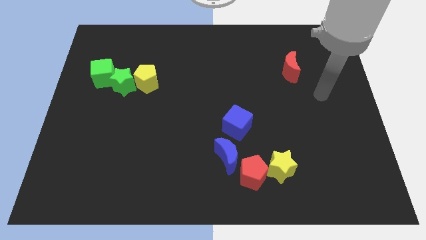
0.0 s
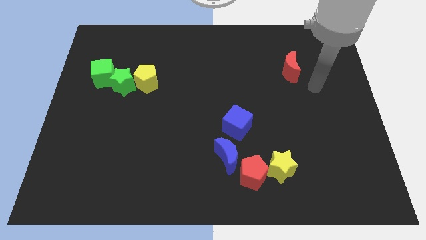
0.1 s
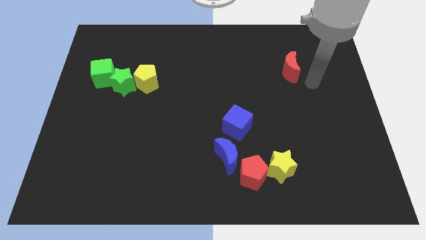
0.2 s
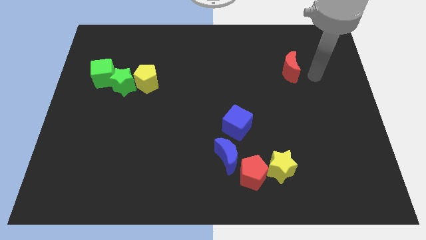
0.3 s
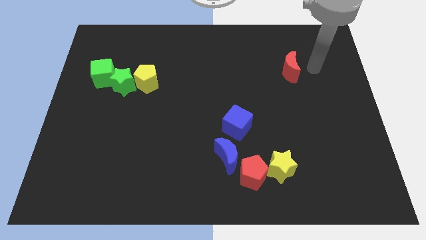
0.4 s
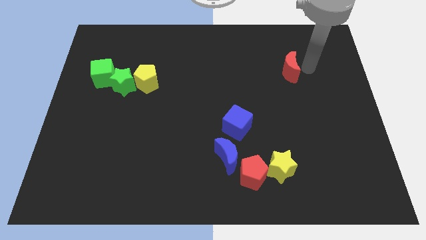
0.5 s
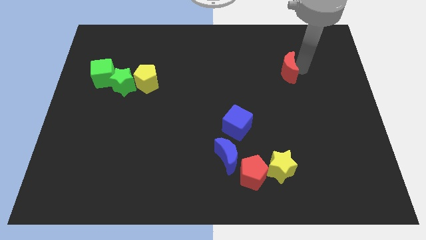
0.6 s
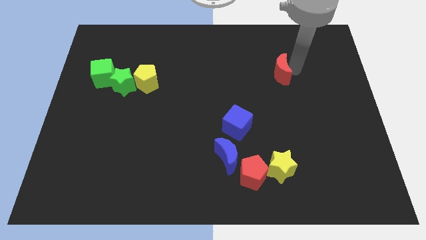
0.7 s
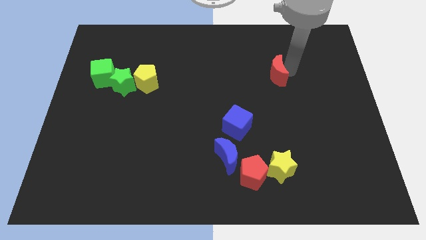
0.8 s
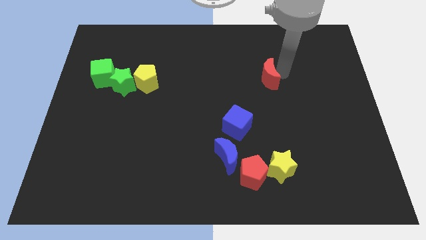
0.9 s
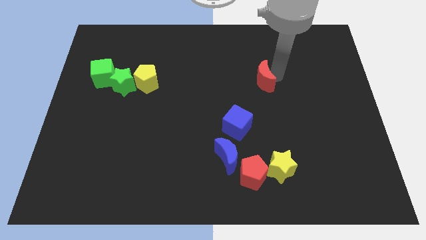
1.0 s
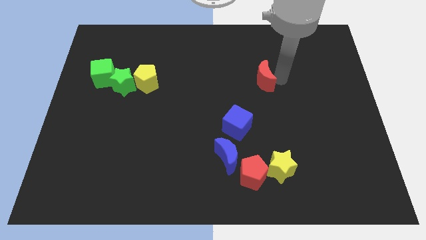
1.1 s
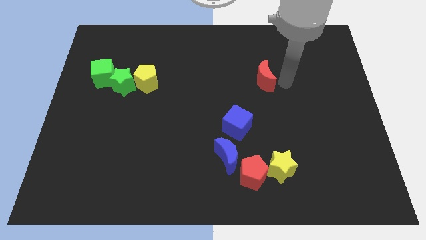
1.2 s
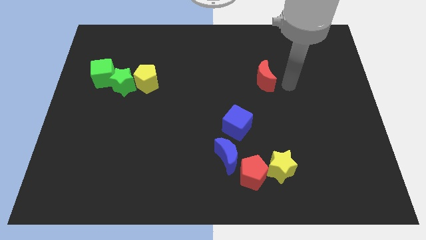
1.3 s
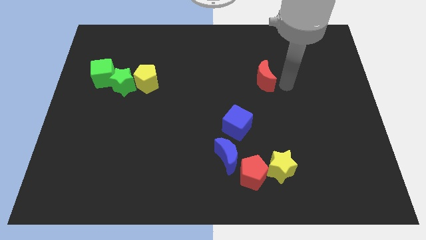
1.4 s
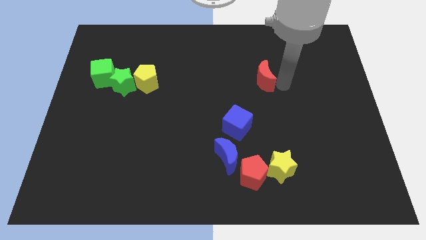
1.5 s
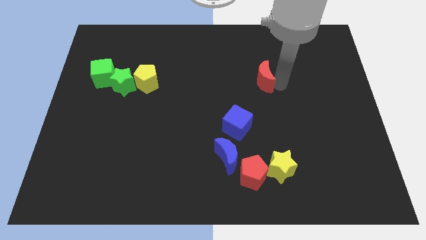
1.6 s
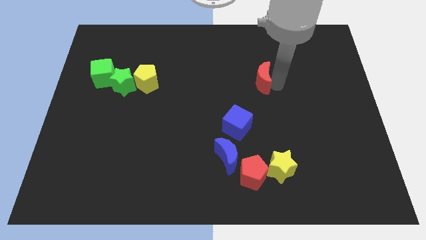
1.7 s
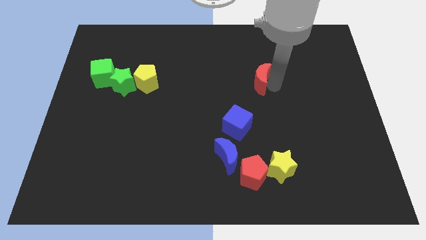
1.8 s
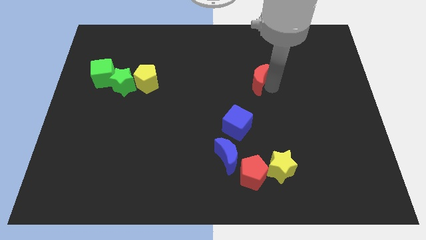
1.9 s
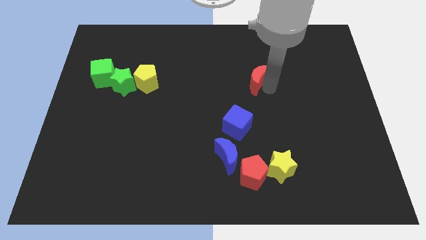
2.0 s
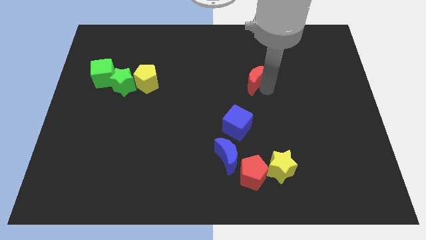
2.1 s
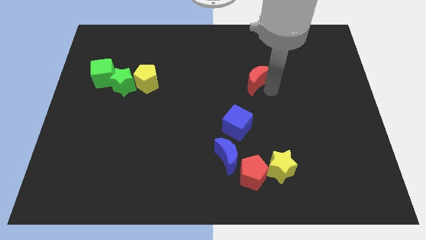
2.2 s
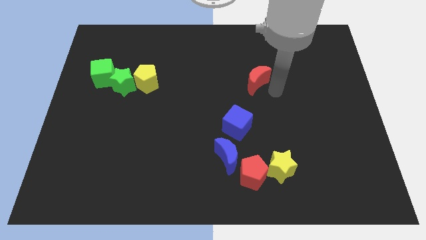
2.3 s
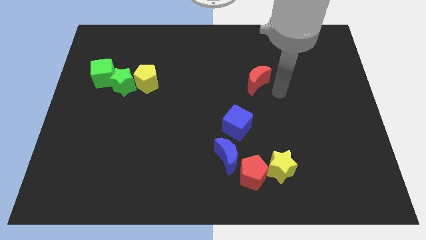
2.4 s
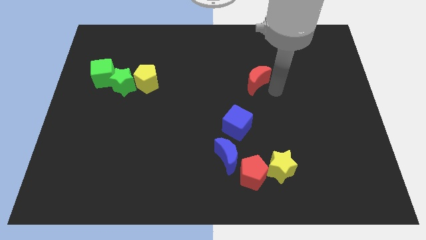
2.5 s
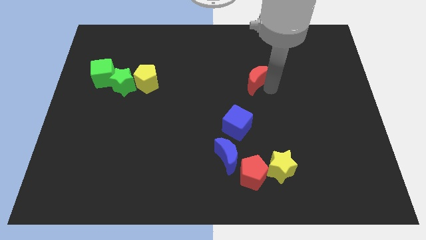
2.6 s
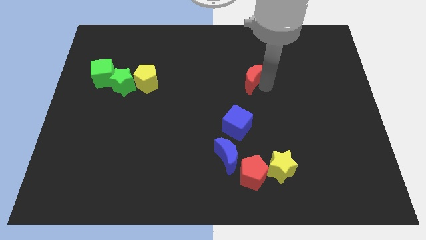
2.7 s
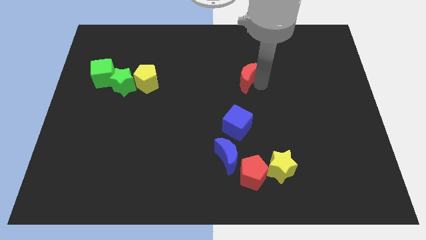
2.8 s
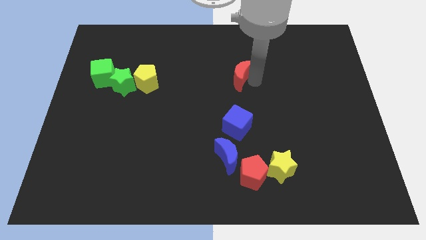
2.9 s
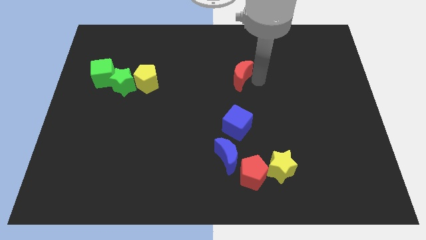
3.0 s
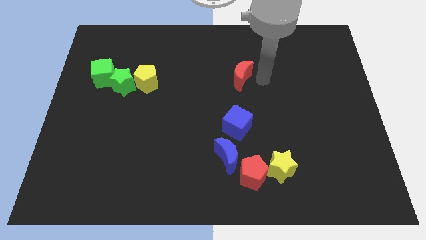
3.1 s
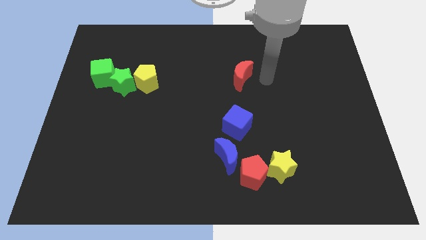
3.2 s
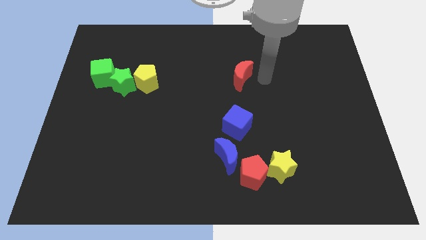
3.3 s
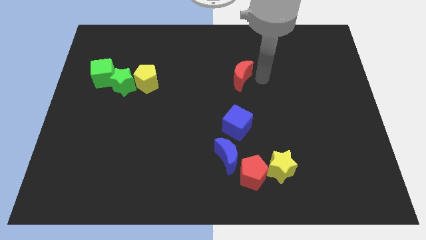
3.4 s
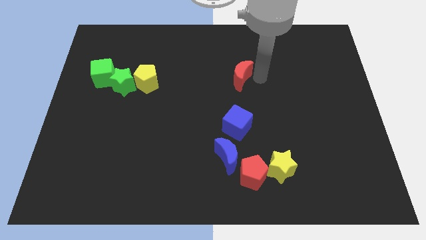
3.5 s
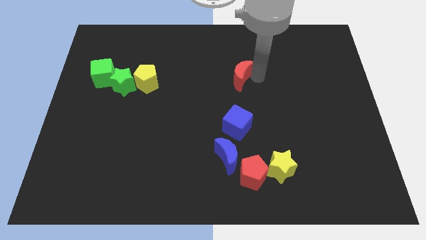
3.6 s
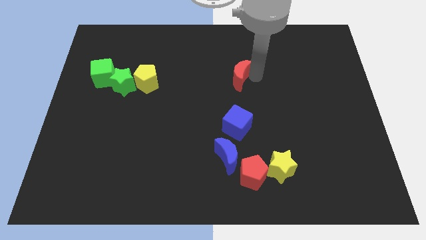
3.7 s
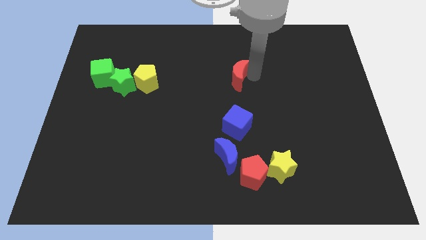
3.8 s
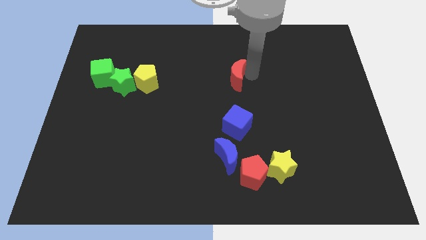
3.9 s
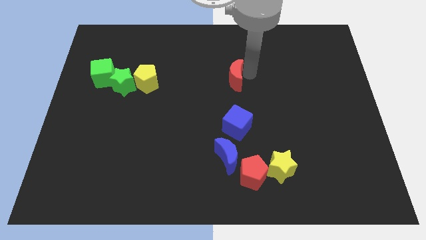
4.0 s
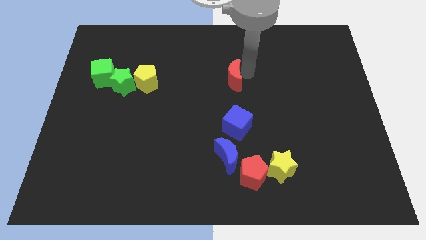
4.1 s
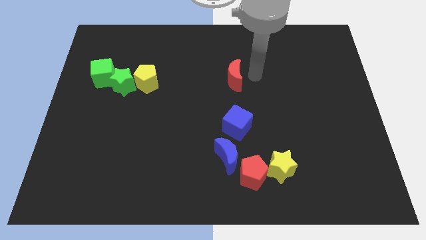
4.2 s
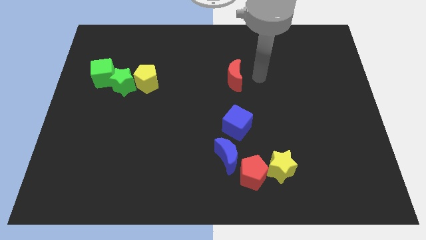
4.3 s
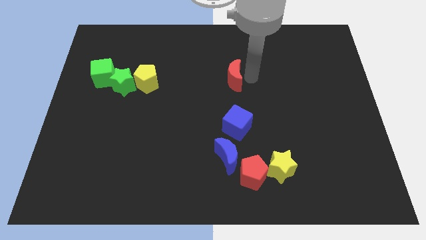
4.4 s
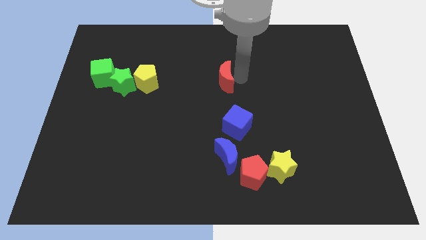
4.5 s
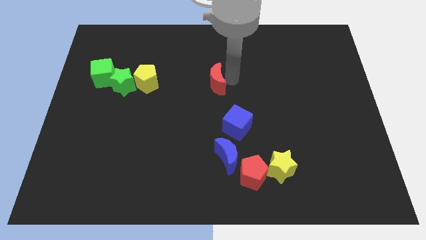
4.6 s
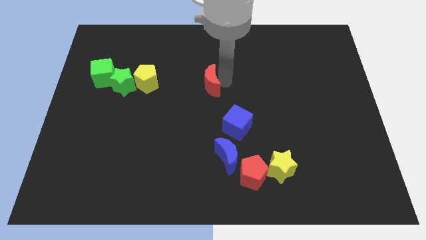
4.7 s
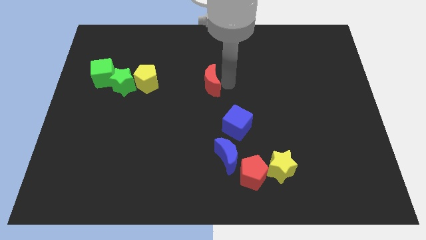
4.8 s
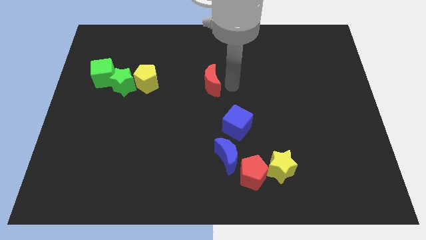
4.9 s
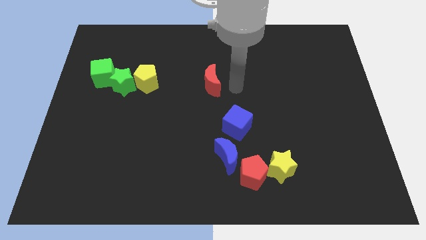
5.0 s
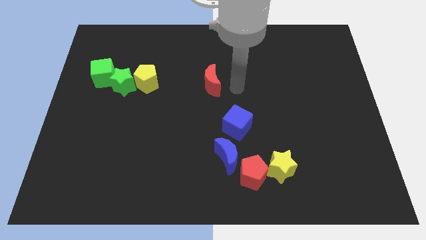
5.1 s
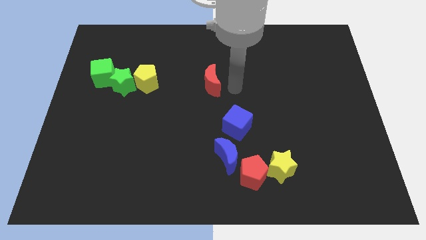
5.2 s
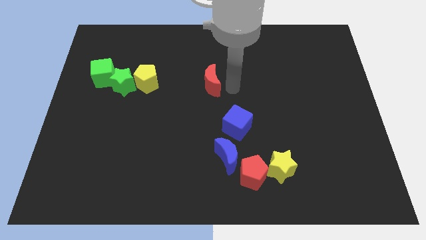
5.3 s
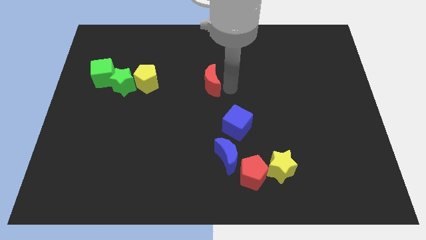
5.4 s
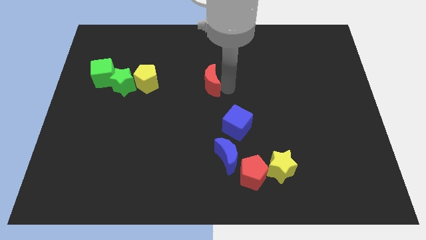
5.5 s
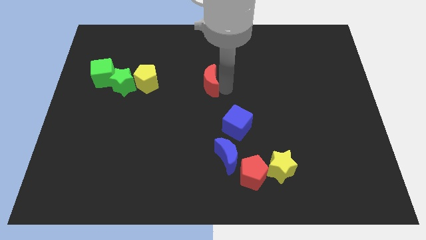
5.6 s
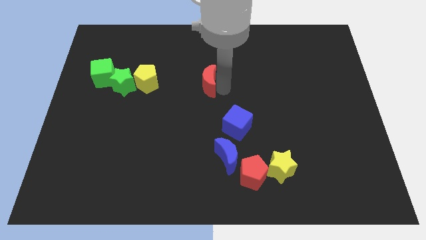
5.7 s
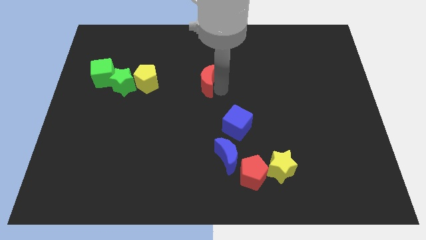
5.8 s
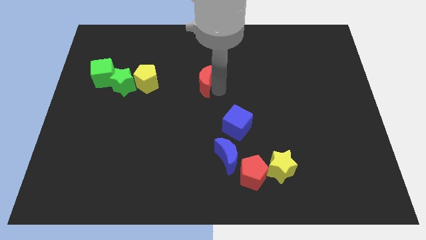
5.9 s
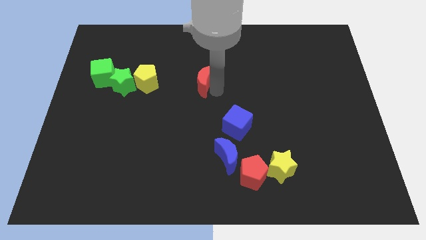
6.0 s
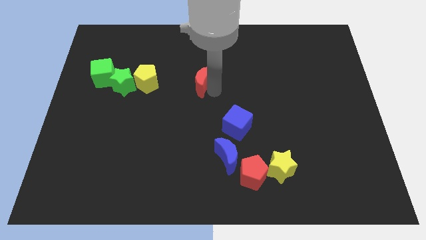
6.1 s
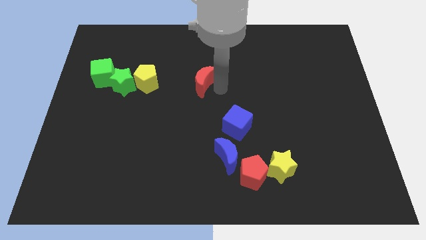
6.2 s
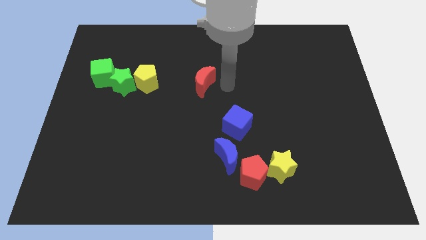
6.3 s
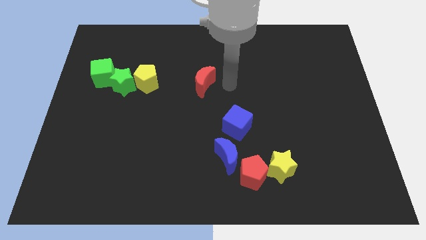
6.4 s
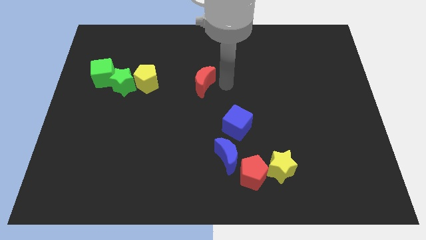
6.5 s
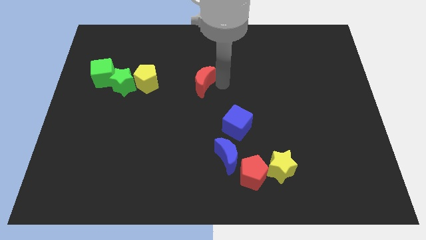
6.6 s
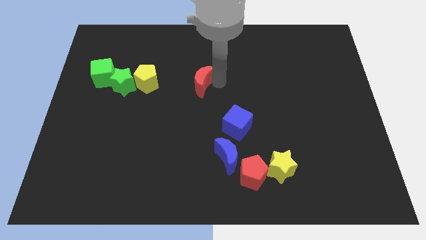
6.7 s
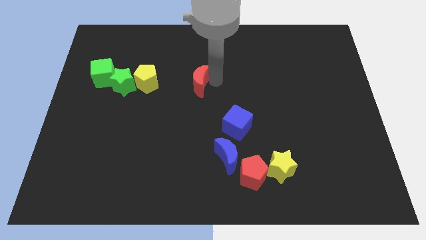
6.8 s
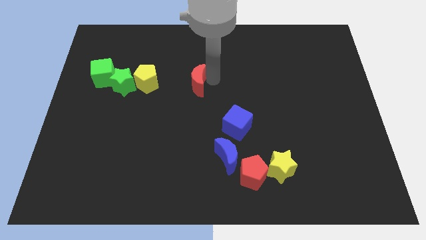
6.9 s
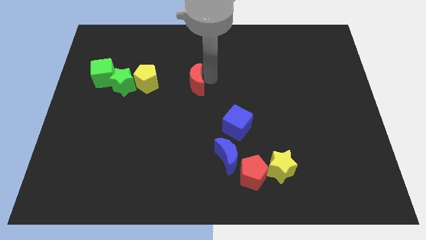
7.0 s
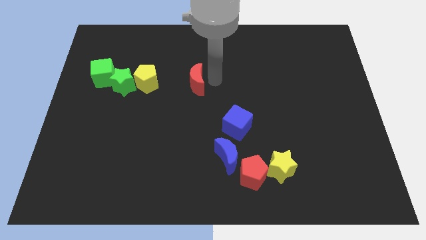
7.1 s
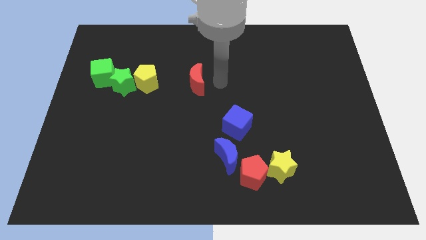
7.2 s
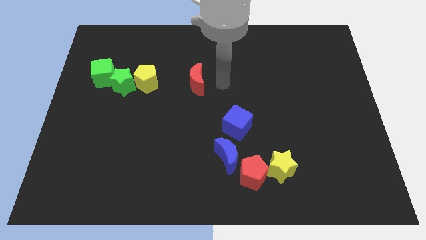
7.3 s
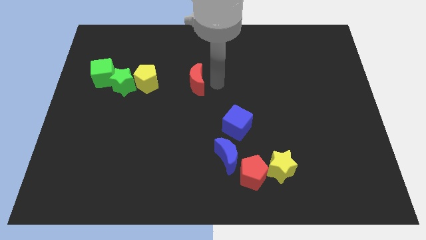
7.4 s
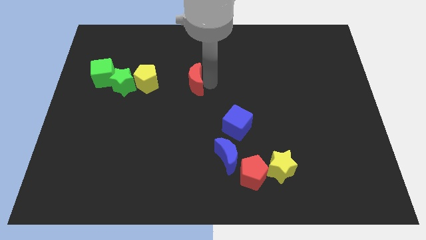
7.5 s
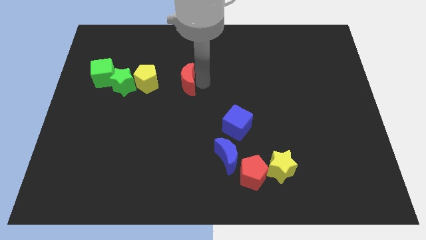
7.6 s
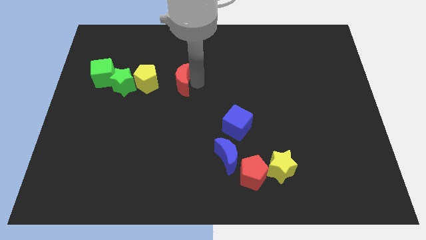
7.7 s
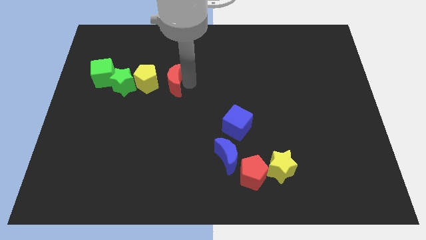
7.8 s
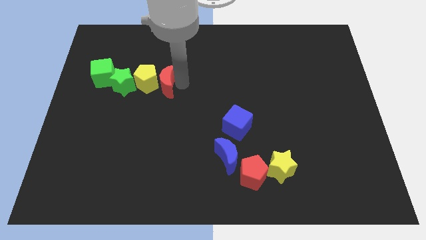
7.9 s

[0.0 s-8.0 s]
move the red moon next to the yellow pentagon
